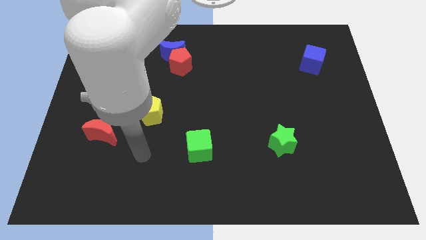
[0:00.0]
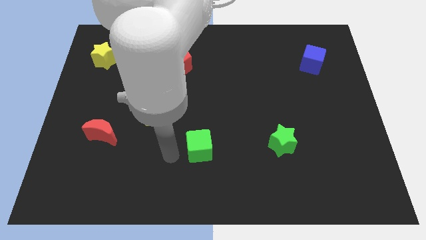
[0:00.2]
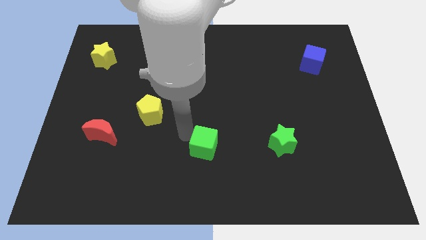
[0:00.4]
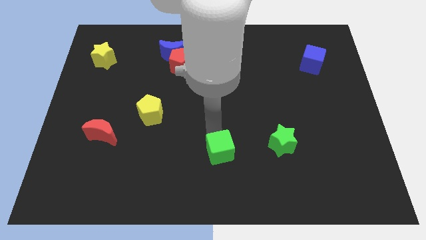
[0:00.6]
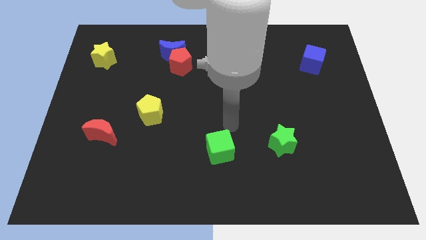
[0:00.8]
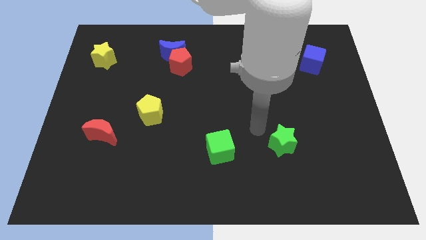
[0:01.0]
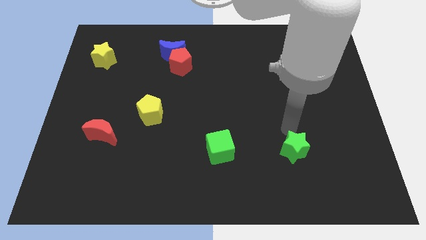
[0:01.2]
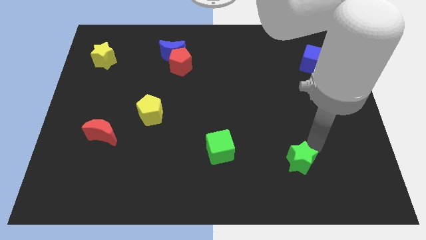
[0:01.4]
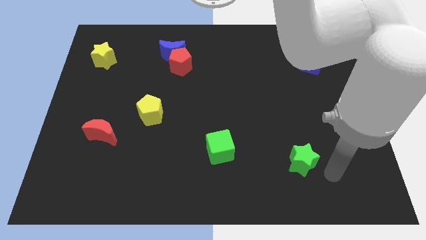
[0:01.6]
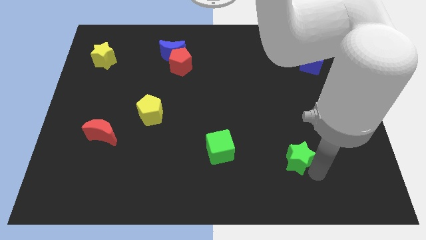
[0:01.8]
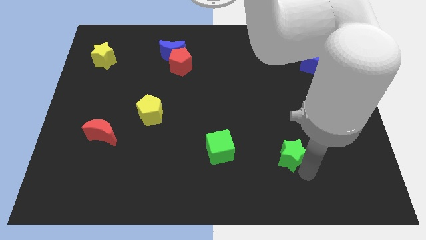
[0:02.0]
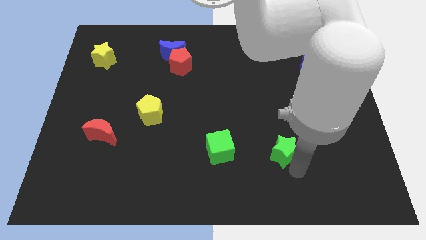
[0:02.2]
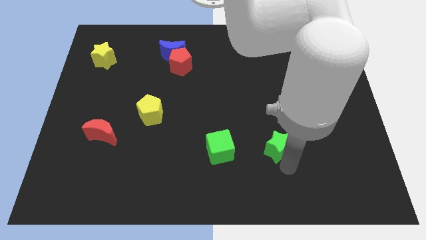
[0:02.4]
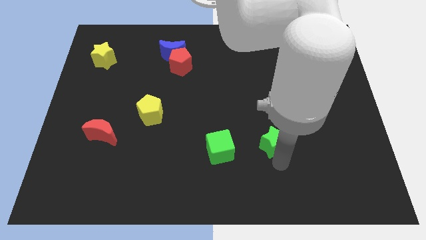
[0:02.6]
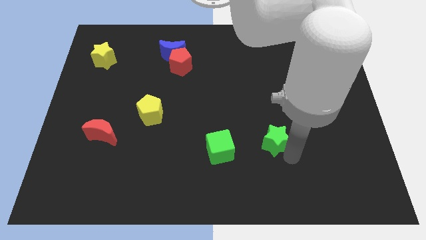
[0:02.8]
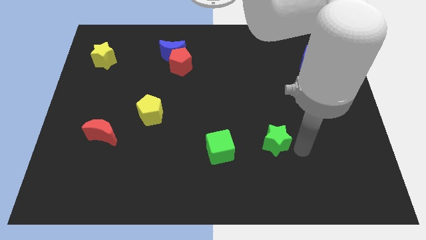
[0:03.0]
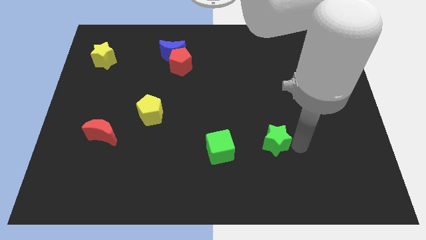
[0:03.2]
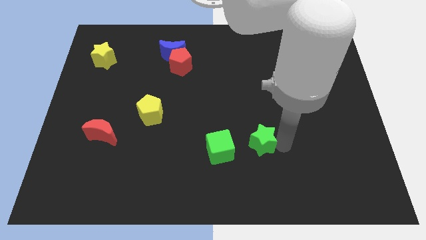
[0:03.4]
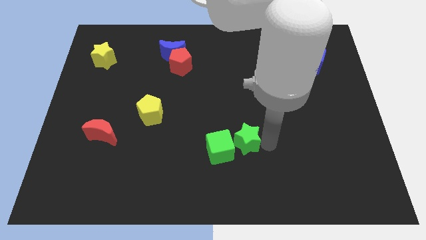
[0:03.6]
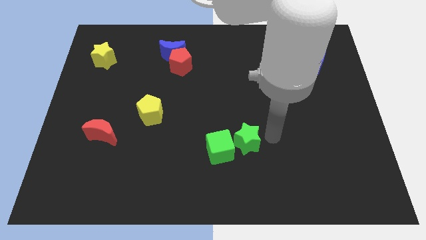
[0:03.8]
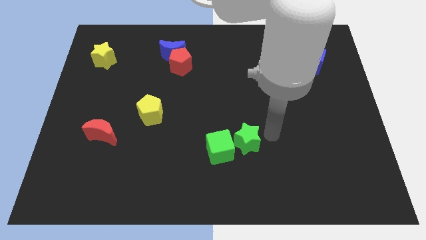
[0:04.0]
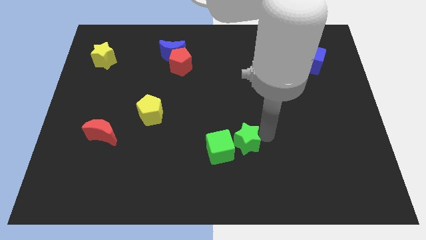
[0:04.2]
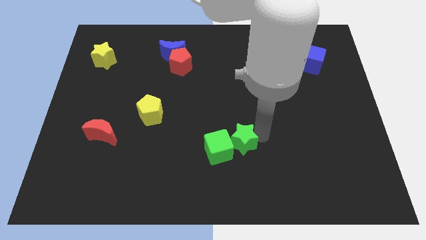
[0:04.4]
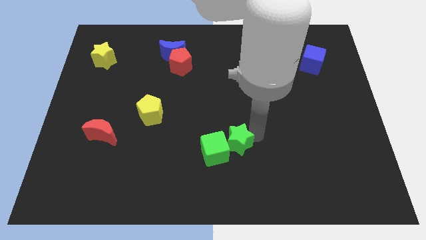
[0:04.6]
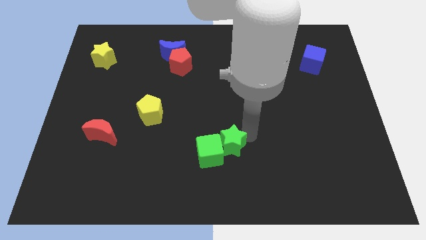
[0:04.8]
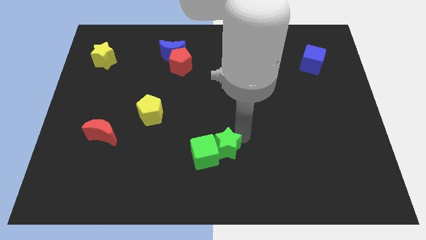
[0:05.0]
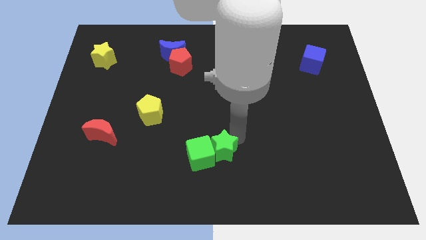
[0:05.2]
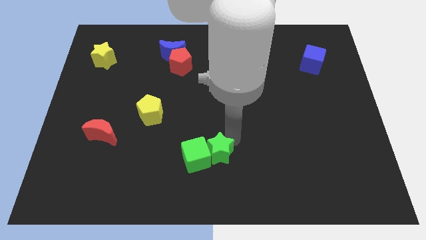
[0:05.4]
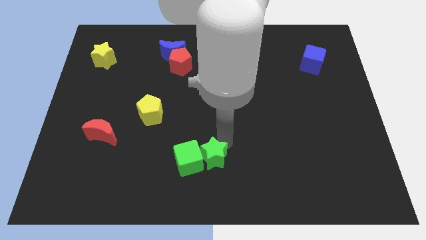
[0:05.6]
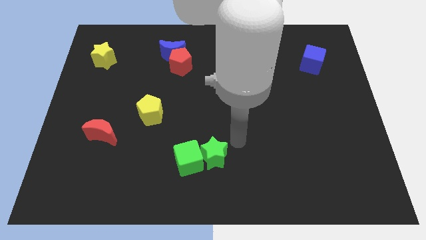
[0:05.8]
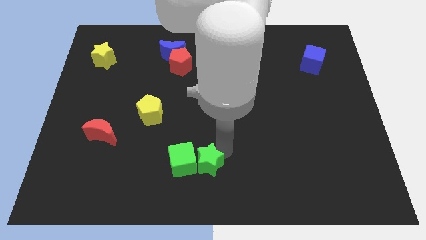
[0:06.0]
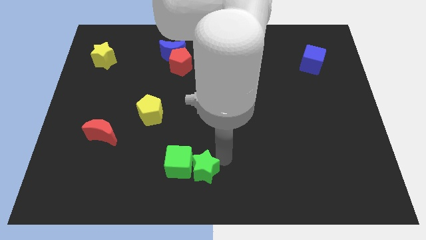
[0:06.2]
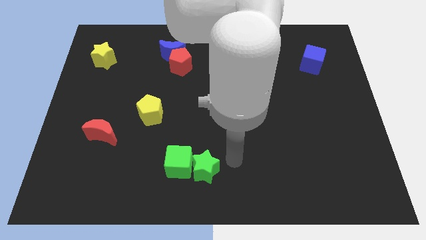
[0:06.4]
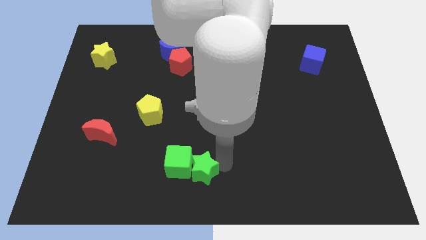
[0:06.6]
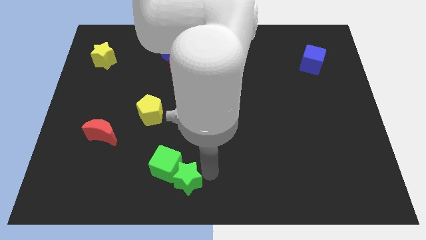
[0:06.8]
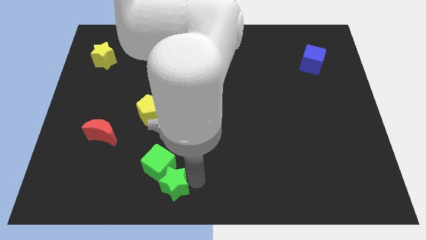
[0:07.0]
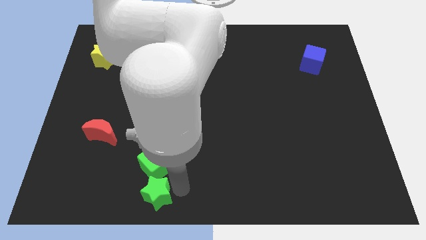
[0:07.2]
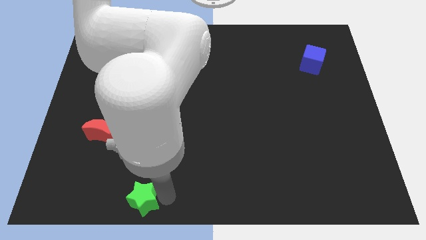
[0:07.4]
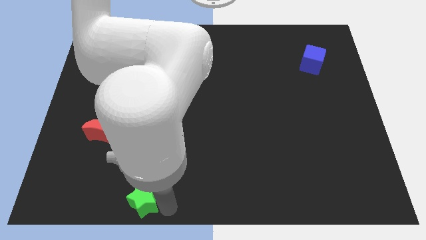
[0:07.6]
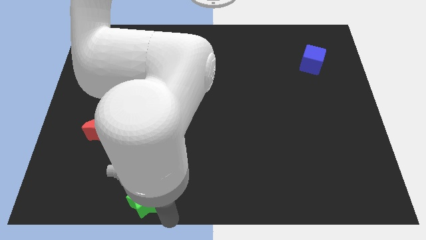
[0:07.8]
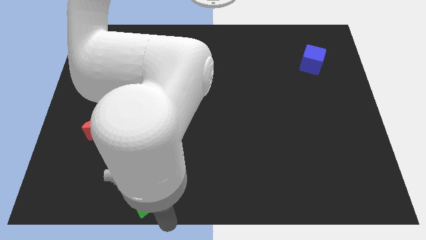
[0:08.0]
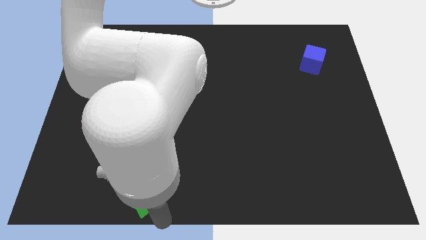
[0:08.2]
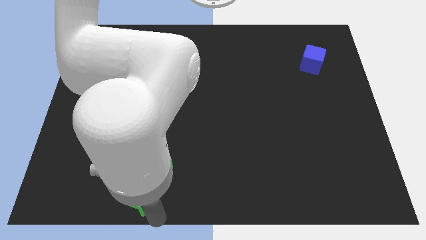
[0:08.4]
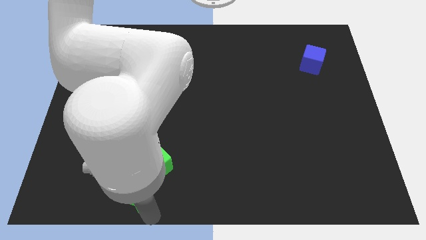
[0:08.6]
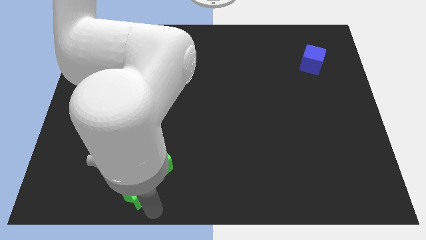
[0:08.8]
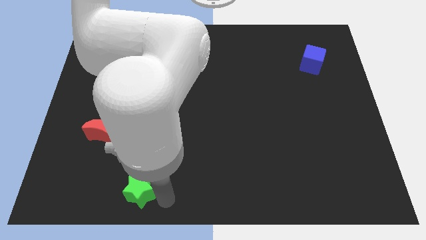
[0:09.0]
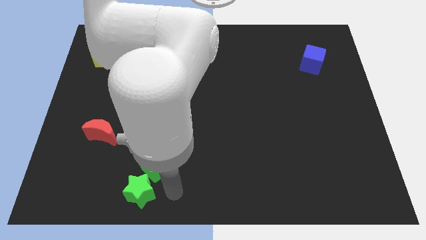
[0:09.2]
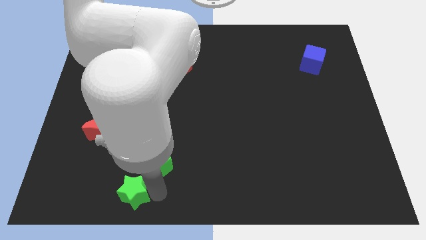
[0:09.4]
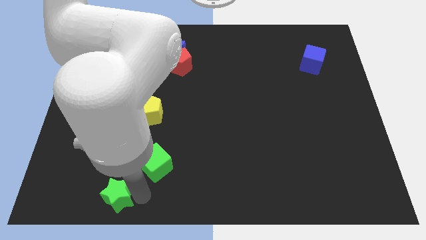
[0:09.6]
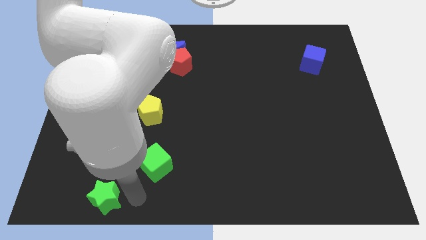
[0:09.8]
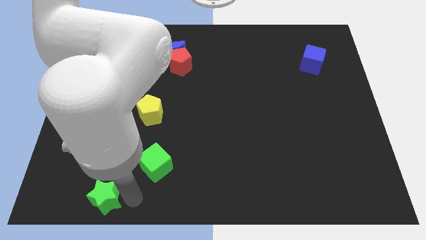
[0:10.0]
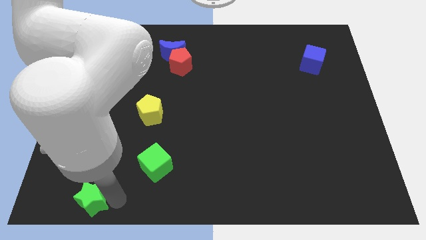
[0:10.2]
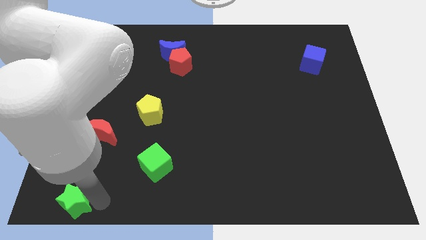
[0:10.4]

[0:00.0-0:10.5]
slide the green star to the bottom left of the board

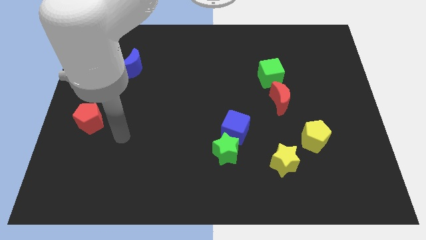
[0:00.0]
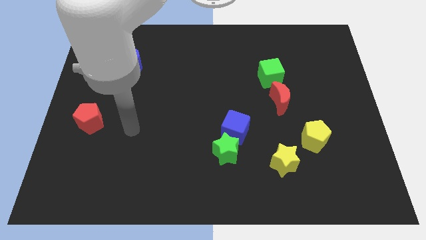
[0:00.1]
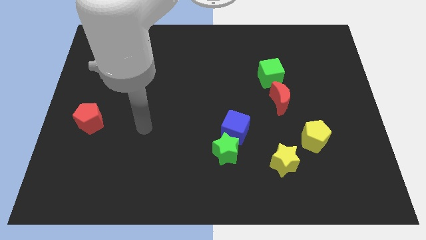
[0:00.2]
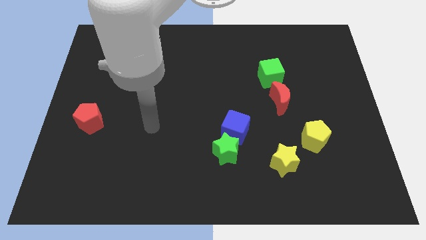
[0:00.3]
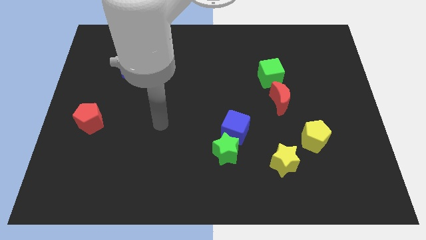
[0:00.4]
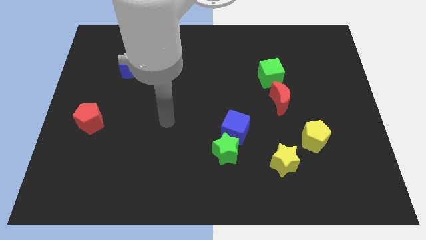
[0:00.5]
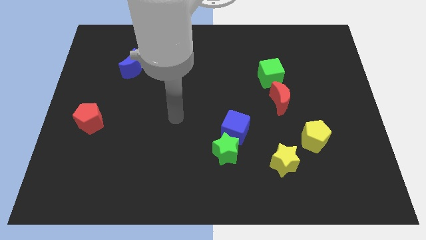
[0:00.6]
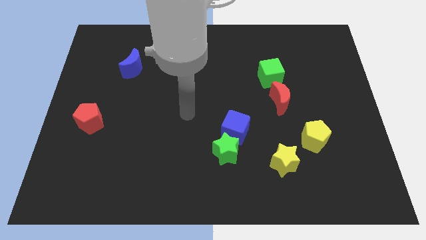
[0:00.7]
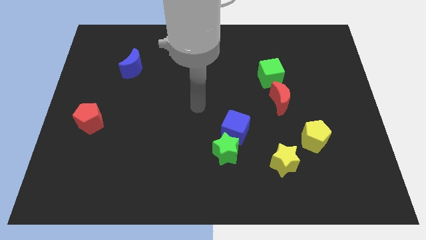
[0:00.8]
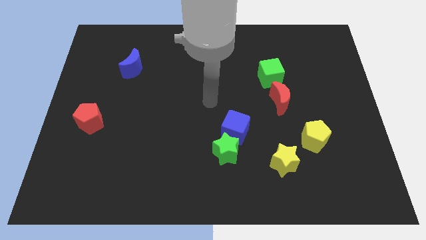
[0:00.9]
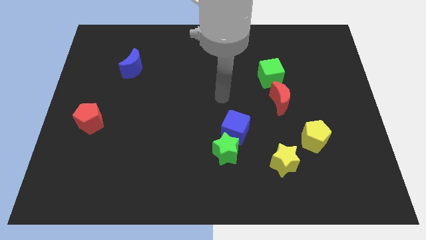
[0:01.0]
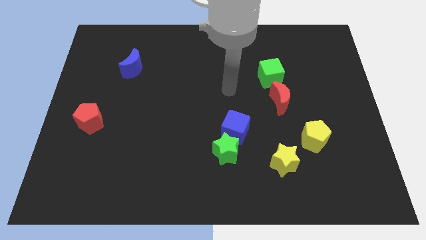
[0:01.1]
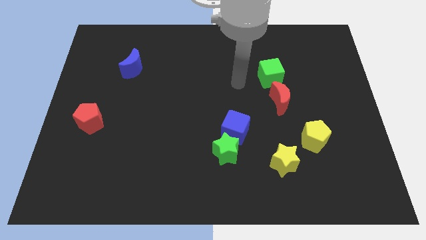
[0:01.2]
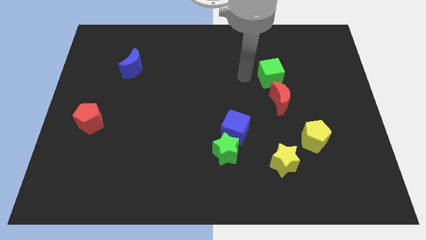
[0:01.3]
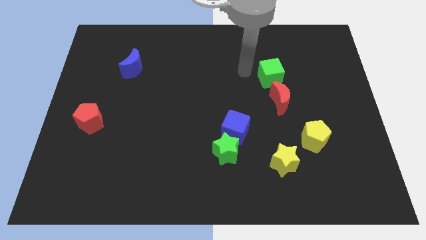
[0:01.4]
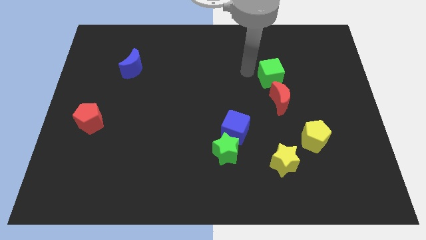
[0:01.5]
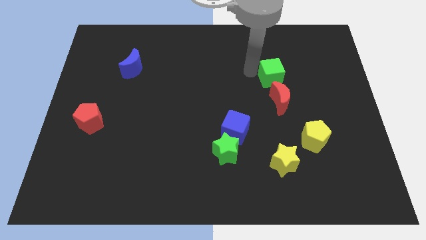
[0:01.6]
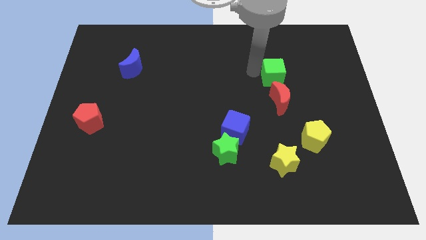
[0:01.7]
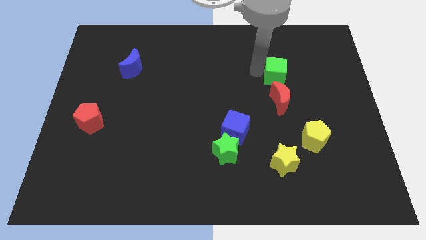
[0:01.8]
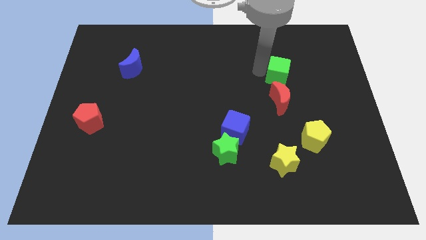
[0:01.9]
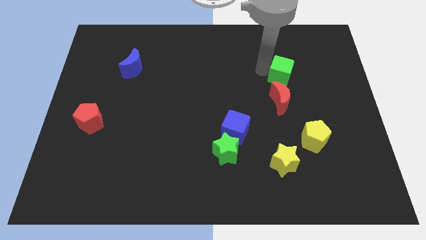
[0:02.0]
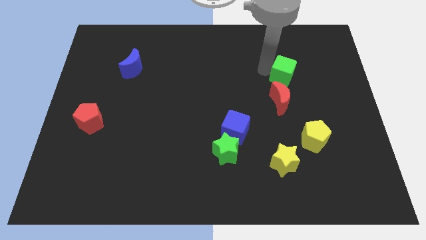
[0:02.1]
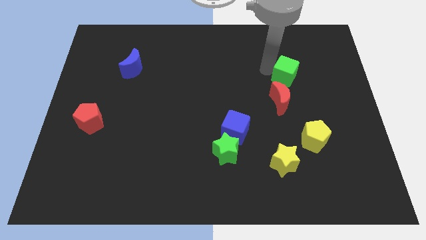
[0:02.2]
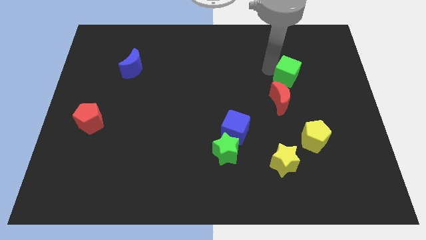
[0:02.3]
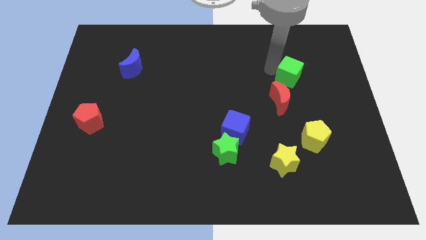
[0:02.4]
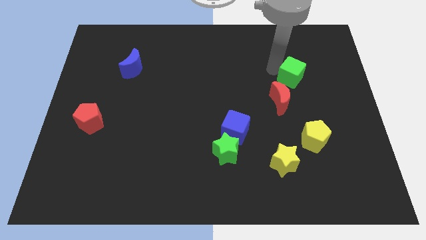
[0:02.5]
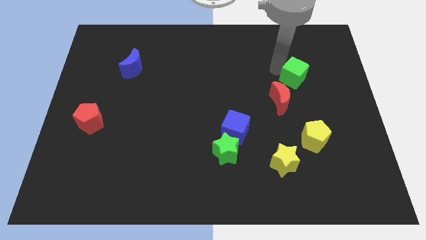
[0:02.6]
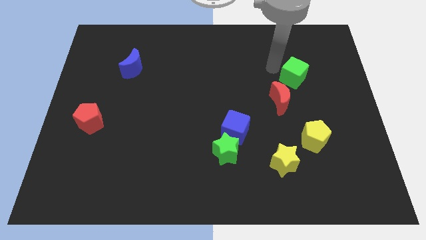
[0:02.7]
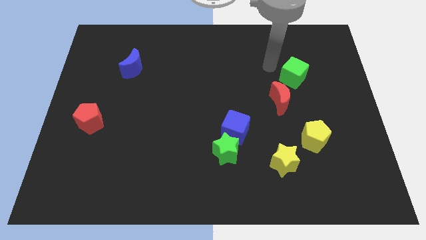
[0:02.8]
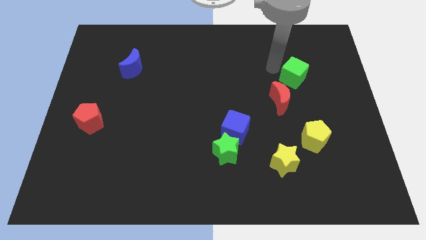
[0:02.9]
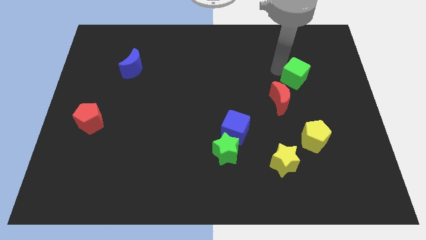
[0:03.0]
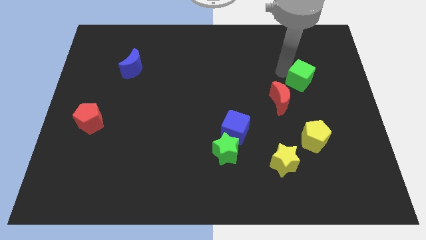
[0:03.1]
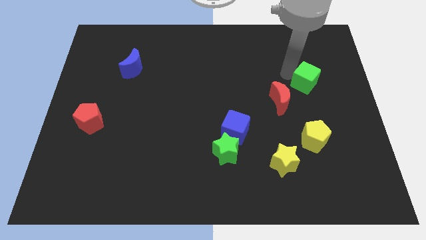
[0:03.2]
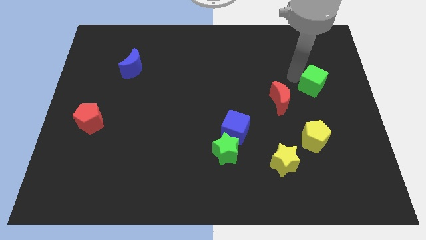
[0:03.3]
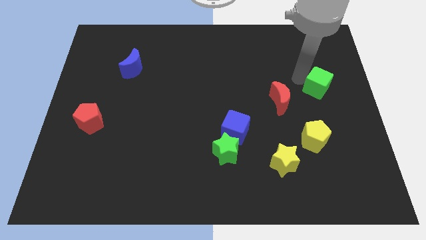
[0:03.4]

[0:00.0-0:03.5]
put the green cube to the right side
